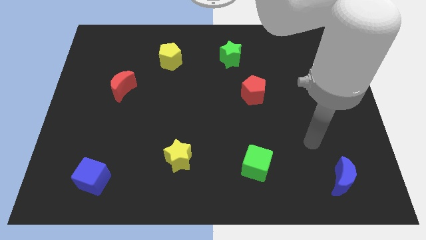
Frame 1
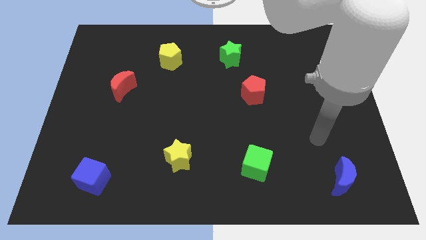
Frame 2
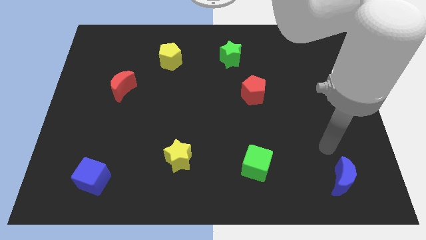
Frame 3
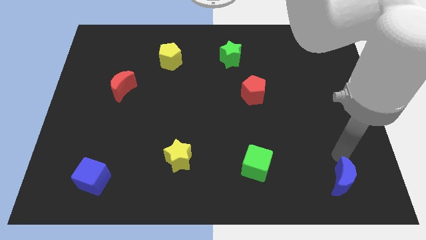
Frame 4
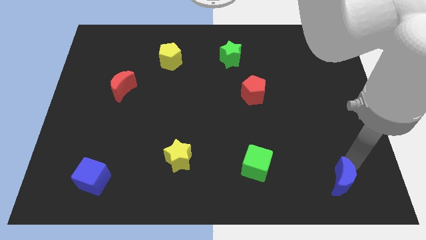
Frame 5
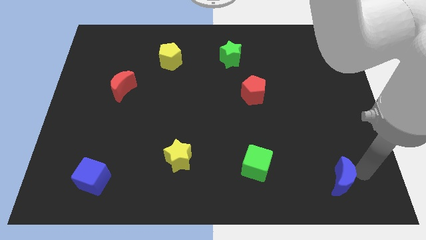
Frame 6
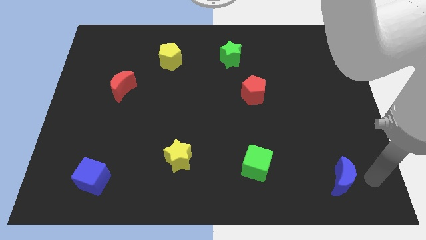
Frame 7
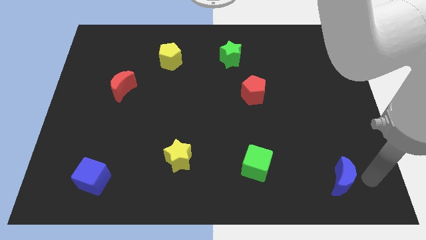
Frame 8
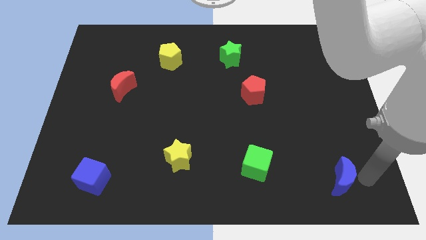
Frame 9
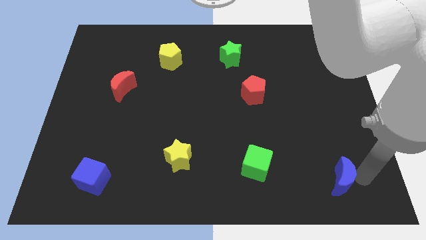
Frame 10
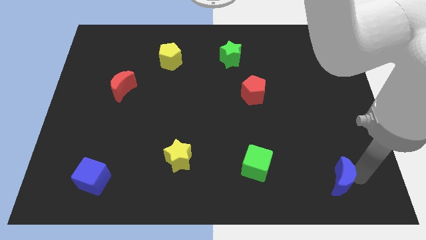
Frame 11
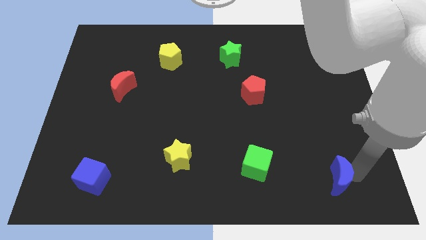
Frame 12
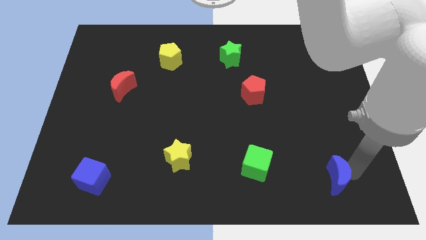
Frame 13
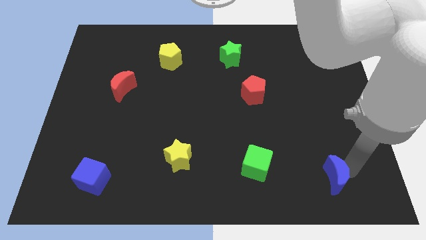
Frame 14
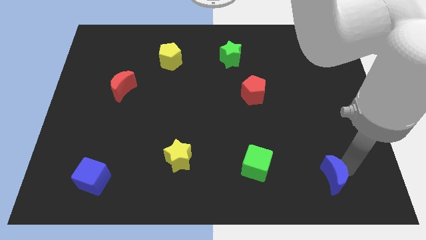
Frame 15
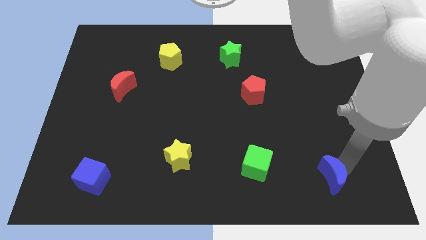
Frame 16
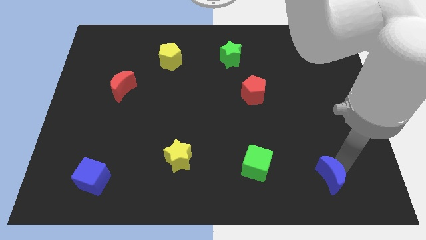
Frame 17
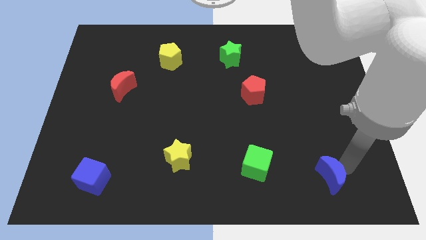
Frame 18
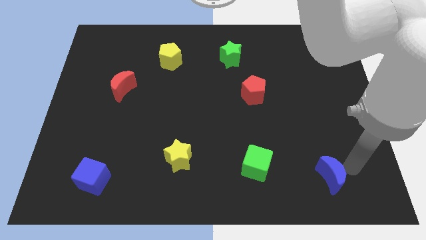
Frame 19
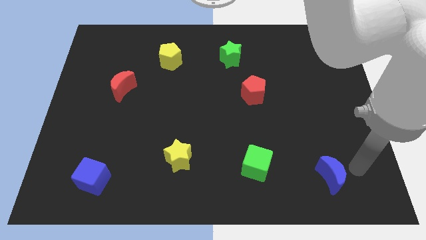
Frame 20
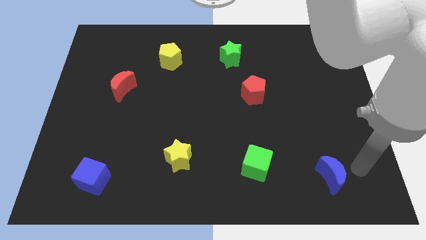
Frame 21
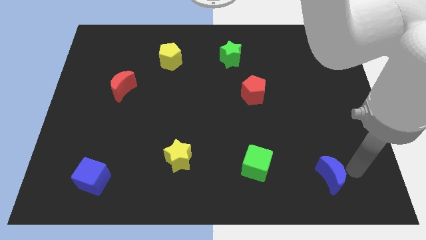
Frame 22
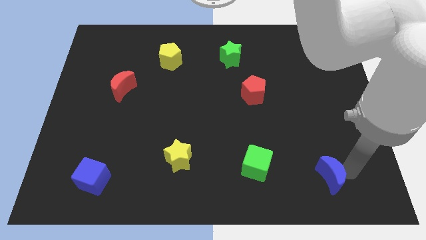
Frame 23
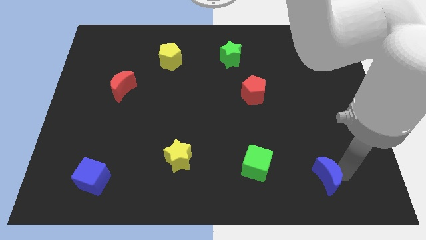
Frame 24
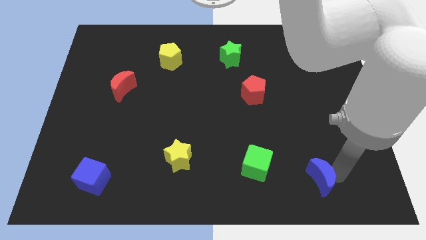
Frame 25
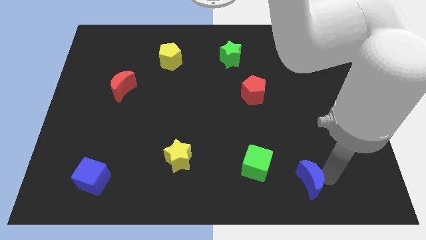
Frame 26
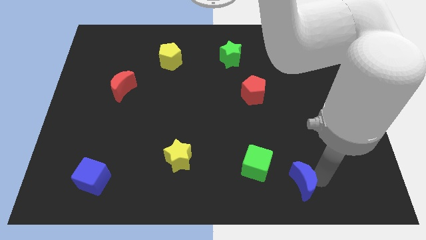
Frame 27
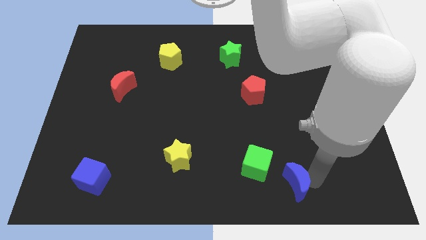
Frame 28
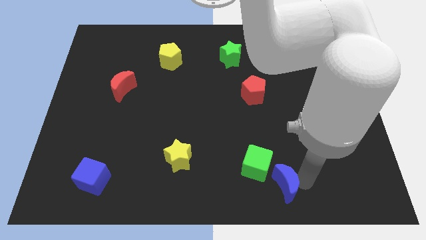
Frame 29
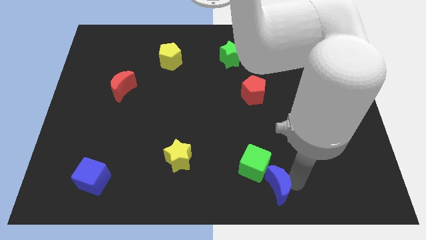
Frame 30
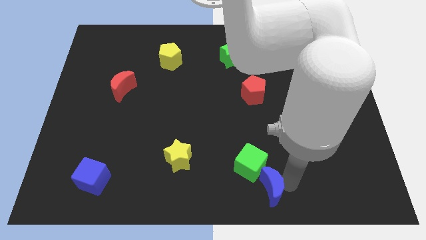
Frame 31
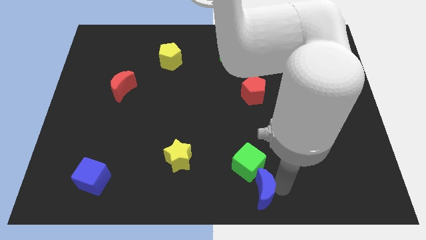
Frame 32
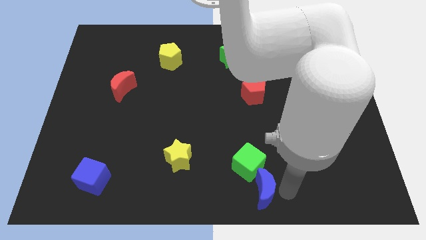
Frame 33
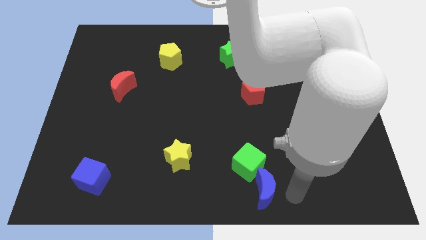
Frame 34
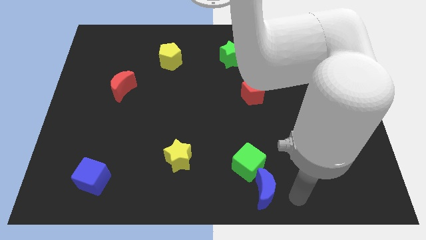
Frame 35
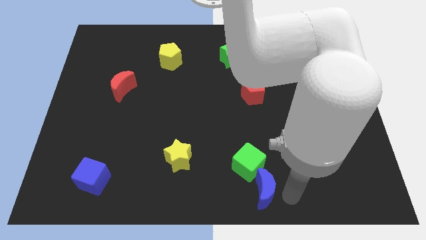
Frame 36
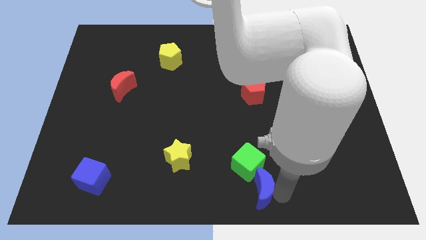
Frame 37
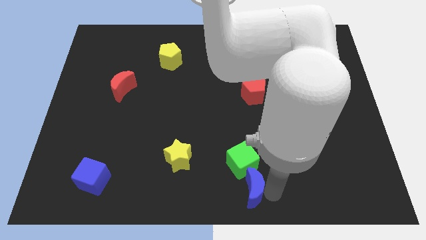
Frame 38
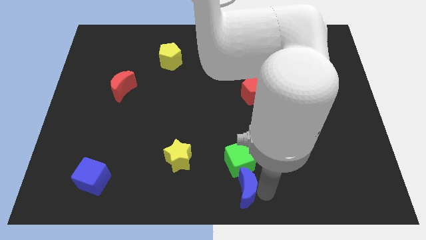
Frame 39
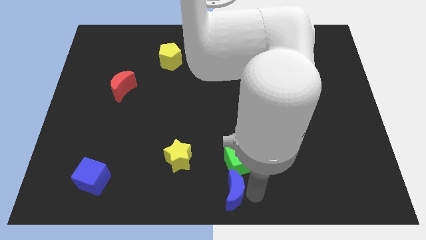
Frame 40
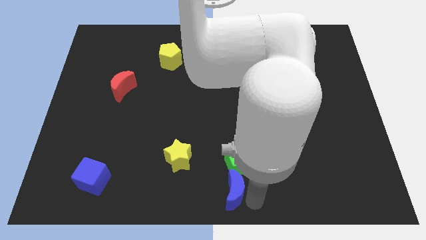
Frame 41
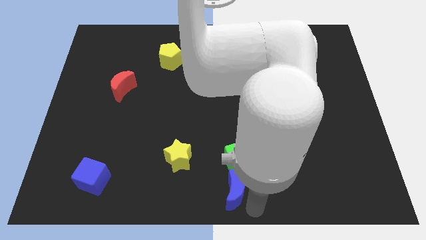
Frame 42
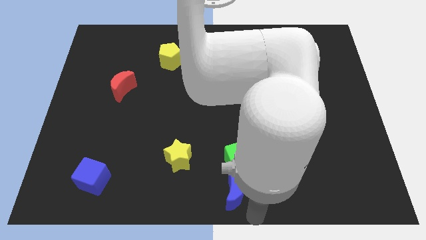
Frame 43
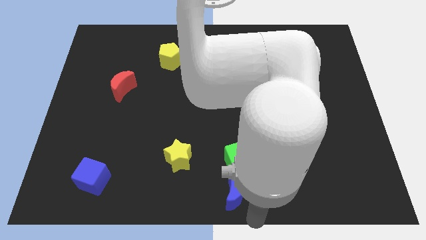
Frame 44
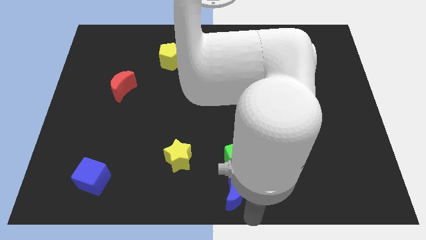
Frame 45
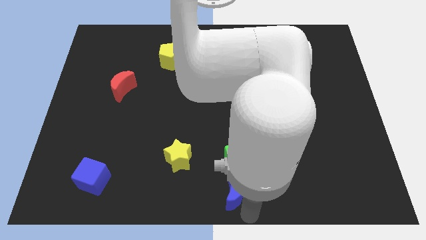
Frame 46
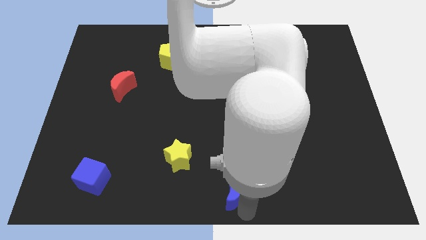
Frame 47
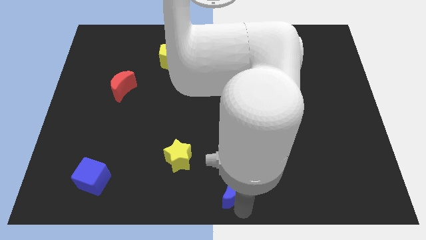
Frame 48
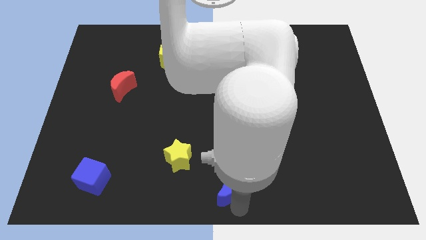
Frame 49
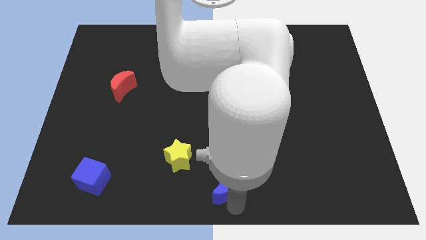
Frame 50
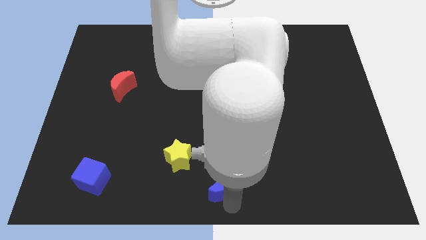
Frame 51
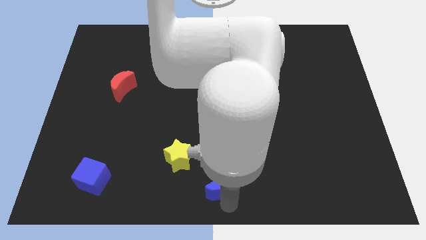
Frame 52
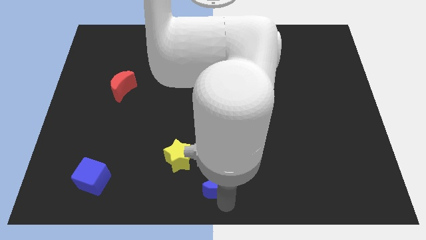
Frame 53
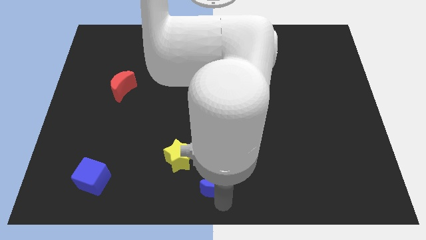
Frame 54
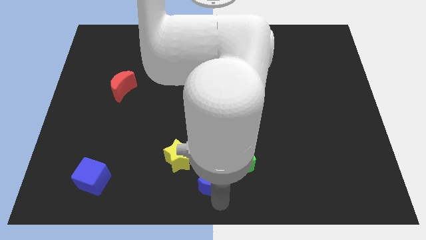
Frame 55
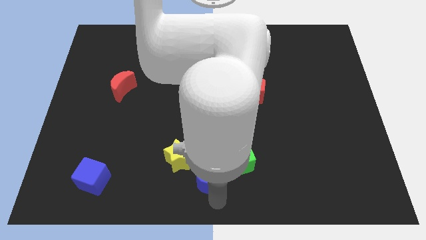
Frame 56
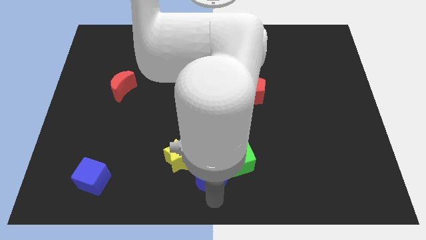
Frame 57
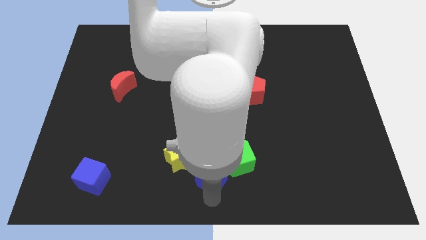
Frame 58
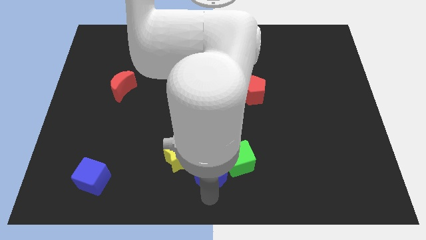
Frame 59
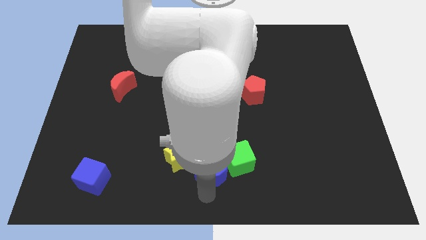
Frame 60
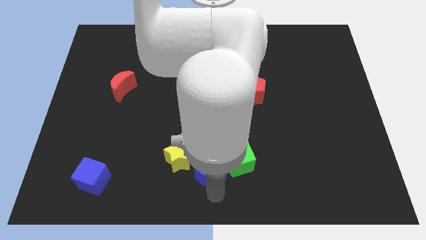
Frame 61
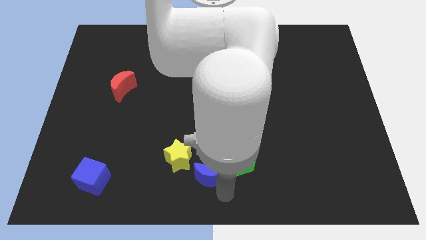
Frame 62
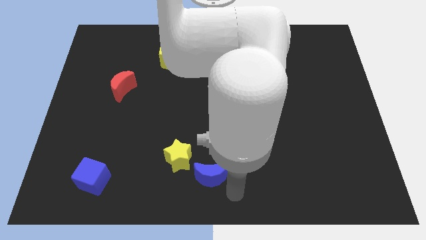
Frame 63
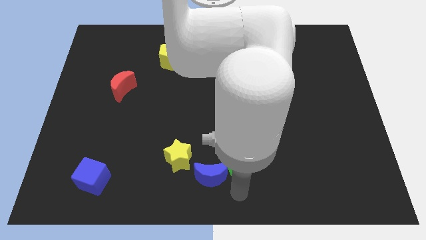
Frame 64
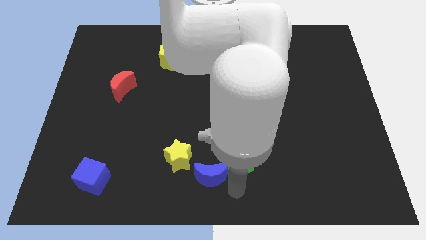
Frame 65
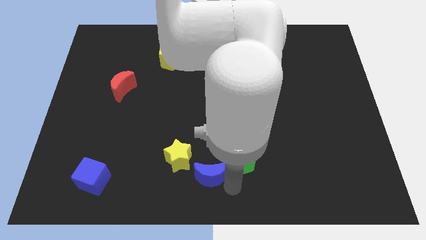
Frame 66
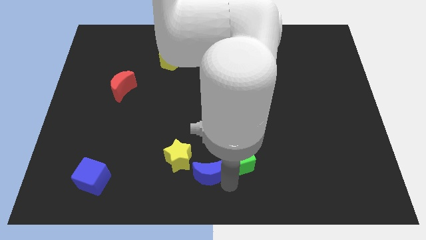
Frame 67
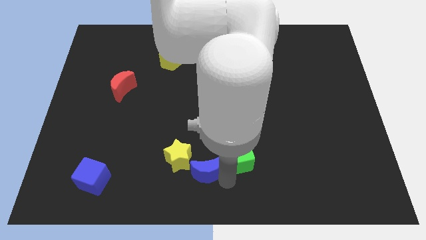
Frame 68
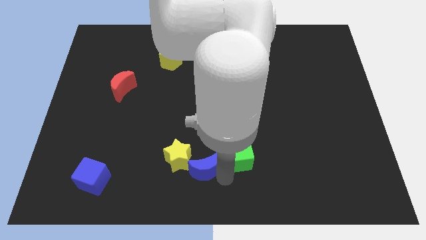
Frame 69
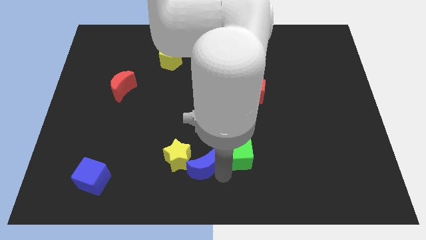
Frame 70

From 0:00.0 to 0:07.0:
move the blue moon to the yellow star

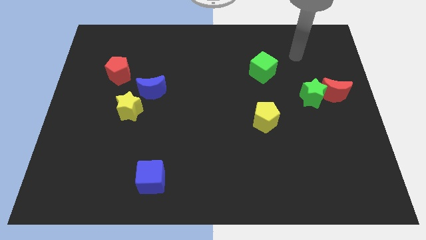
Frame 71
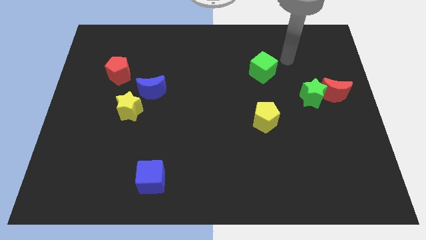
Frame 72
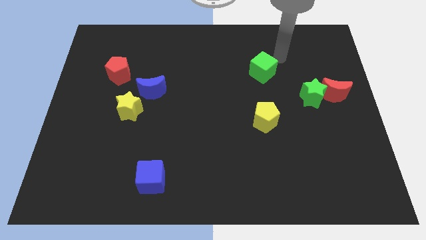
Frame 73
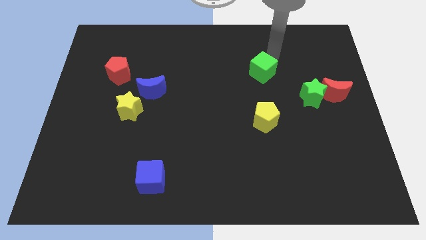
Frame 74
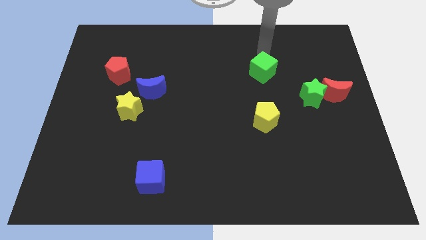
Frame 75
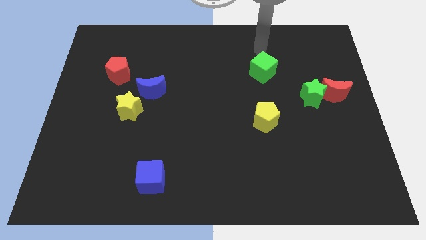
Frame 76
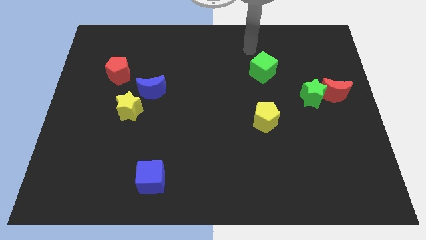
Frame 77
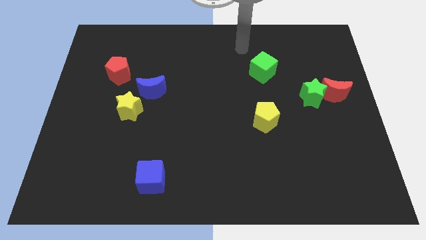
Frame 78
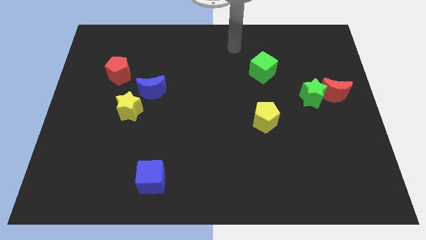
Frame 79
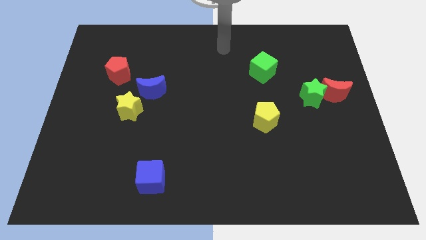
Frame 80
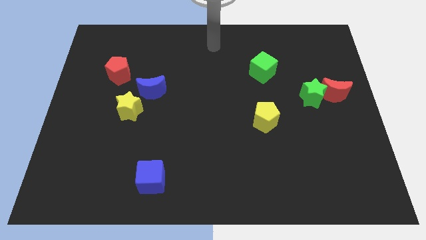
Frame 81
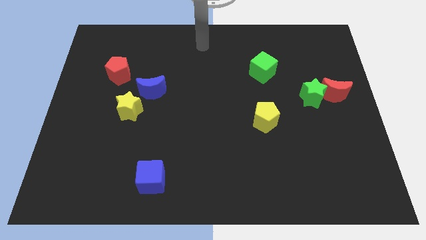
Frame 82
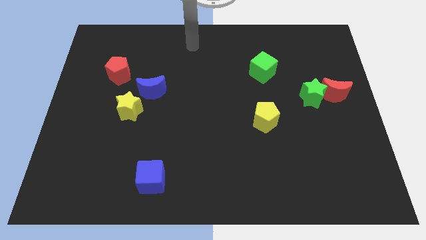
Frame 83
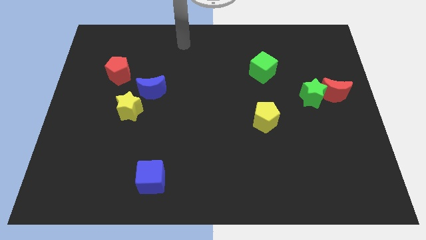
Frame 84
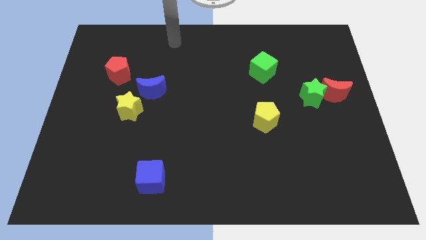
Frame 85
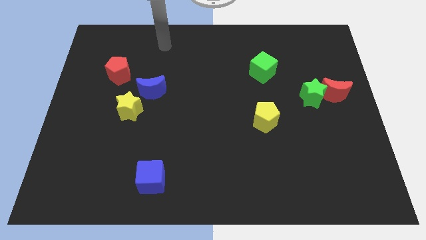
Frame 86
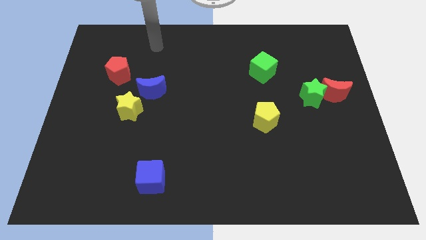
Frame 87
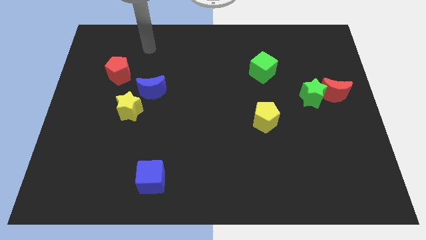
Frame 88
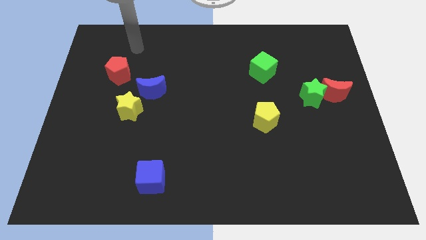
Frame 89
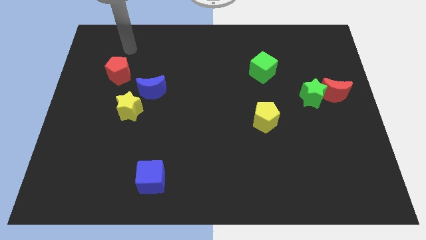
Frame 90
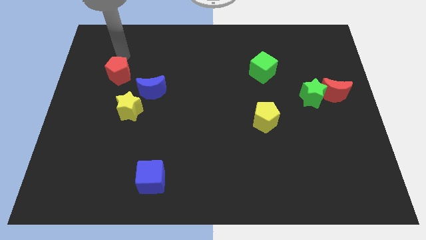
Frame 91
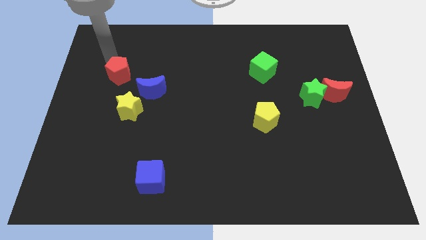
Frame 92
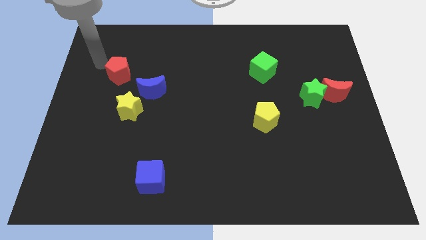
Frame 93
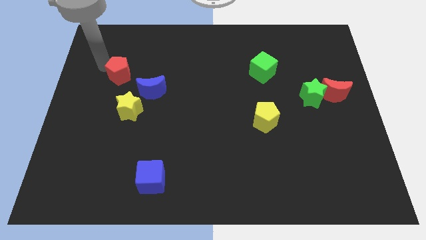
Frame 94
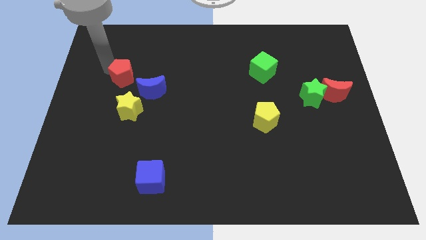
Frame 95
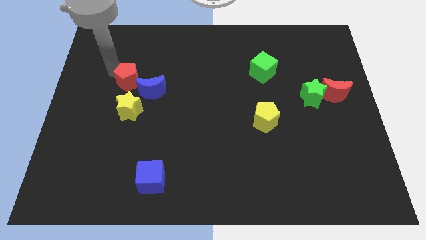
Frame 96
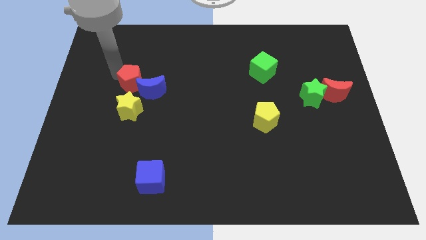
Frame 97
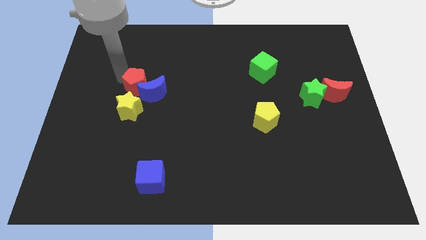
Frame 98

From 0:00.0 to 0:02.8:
slide the red pentagon towards the blue moon
